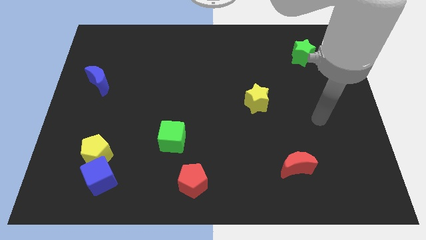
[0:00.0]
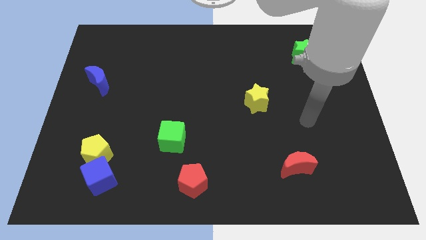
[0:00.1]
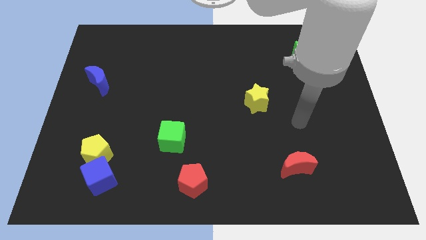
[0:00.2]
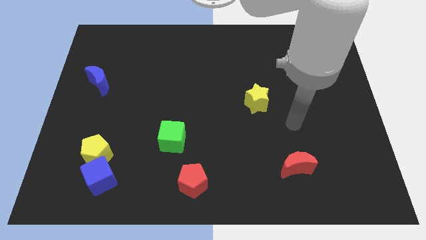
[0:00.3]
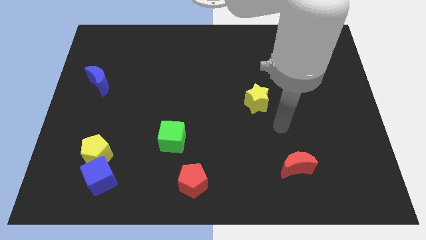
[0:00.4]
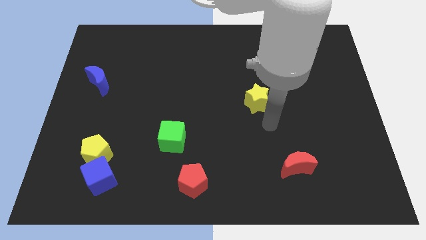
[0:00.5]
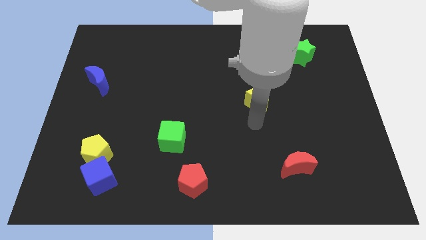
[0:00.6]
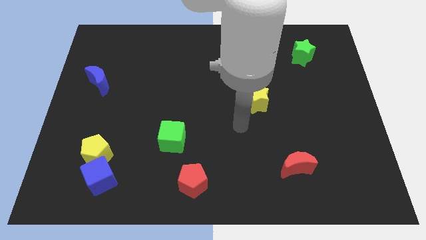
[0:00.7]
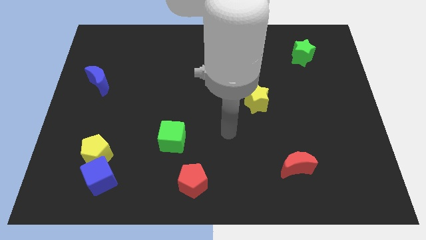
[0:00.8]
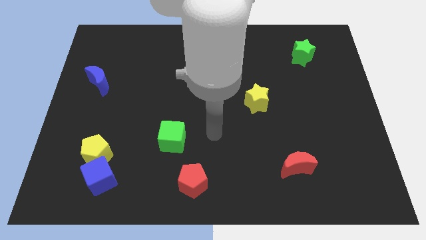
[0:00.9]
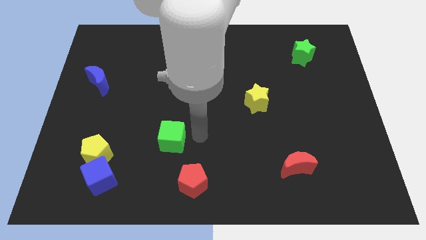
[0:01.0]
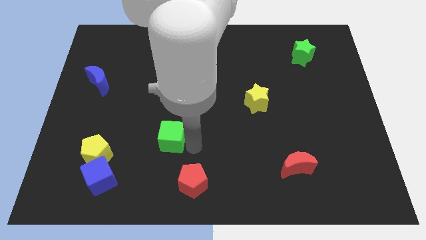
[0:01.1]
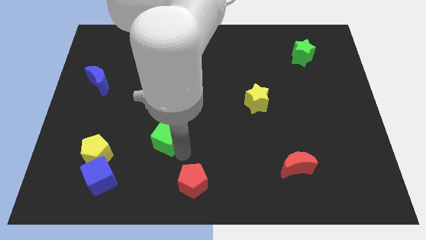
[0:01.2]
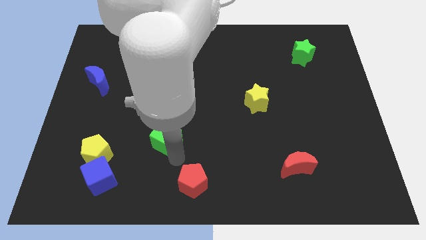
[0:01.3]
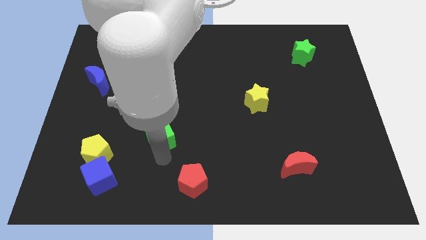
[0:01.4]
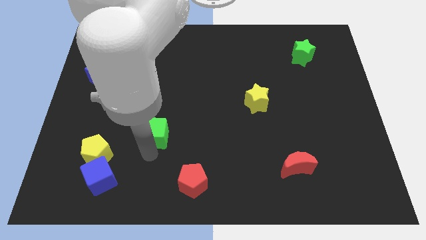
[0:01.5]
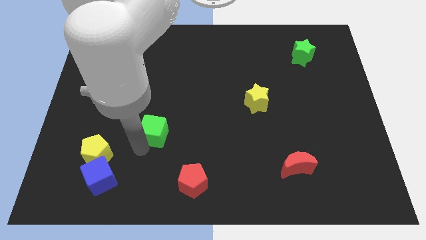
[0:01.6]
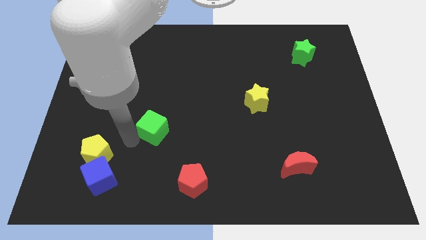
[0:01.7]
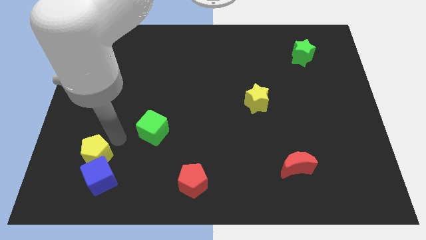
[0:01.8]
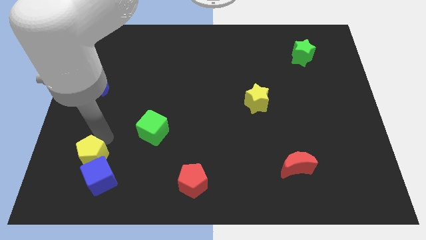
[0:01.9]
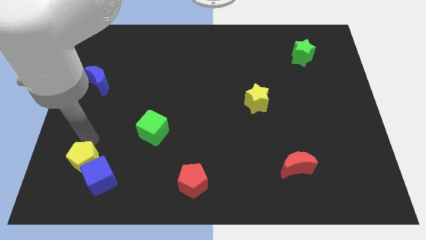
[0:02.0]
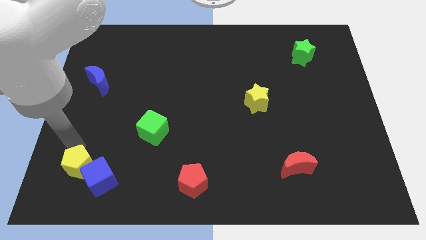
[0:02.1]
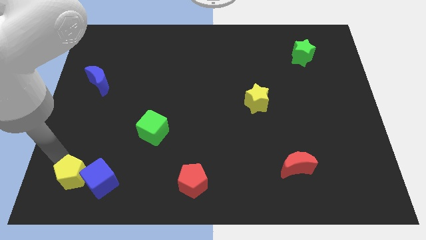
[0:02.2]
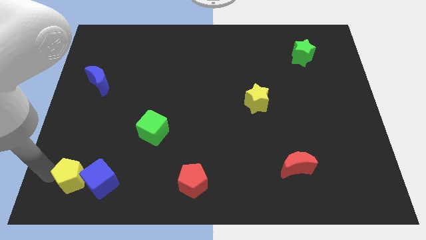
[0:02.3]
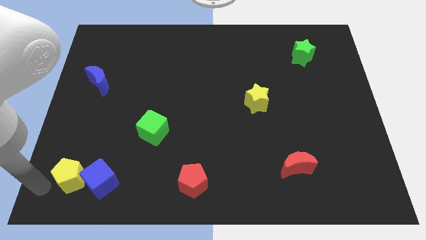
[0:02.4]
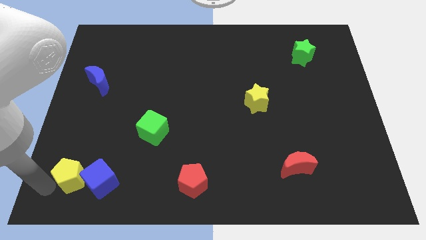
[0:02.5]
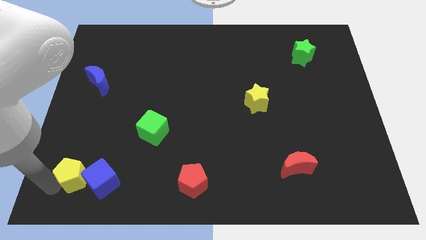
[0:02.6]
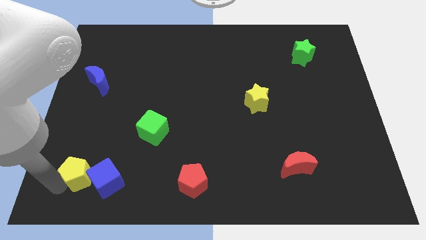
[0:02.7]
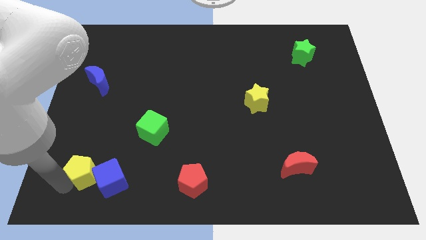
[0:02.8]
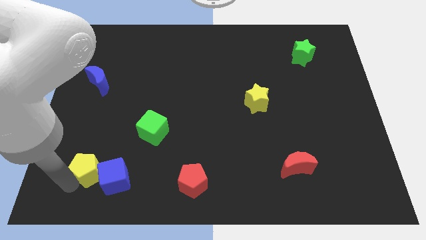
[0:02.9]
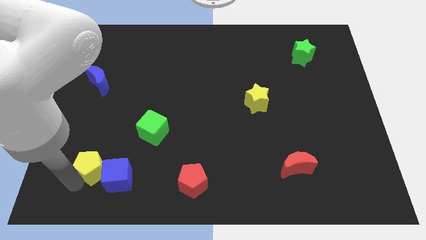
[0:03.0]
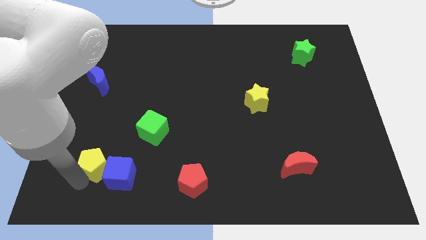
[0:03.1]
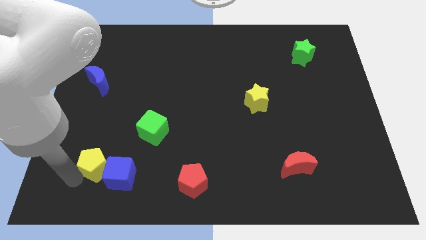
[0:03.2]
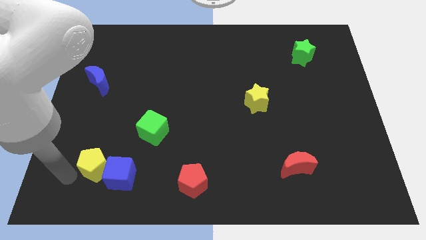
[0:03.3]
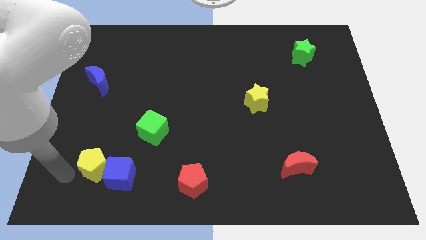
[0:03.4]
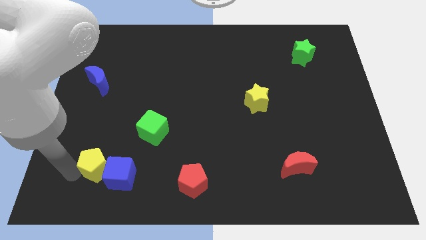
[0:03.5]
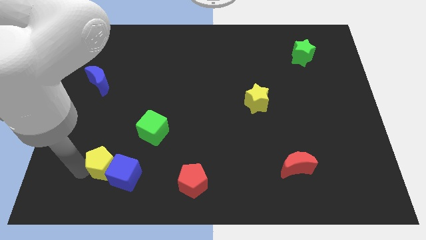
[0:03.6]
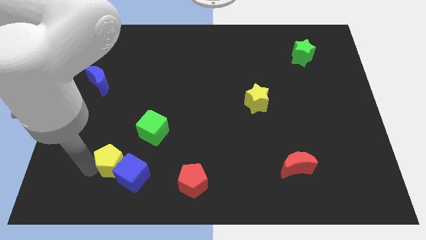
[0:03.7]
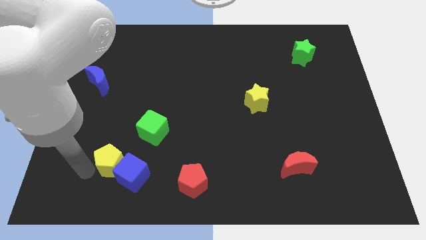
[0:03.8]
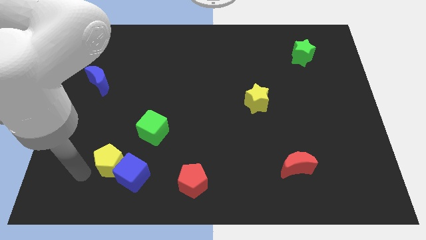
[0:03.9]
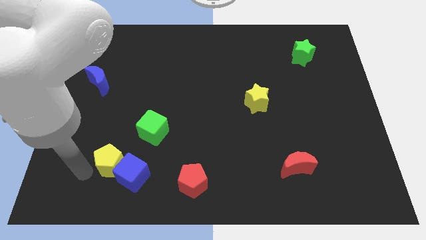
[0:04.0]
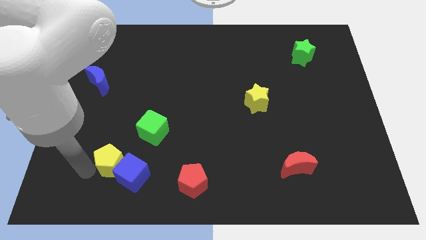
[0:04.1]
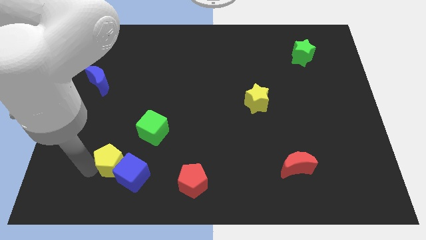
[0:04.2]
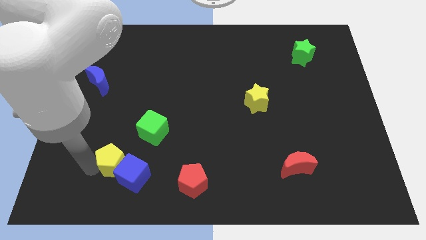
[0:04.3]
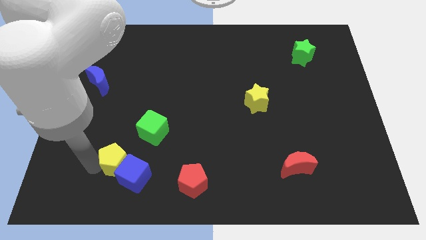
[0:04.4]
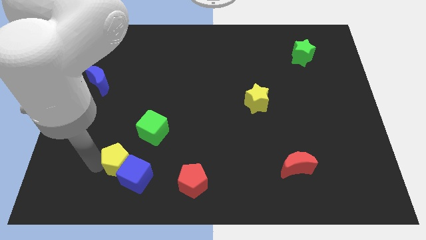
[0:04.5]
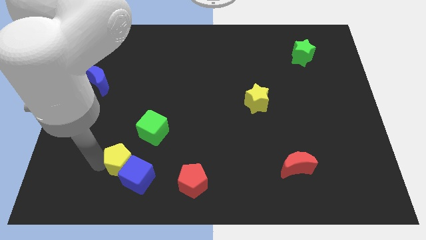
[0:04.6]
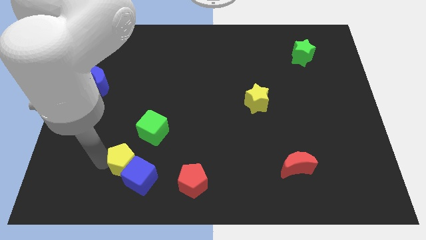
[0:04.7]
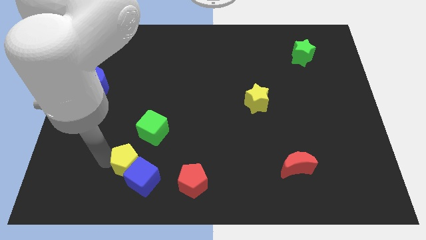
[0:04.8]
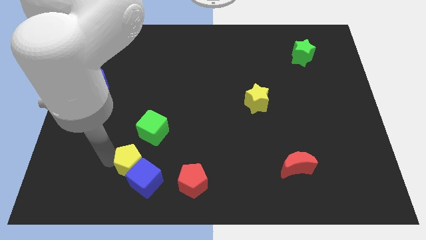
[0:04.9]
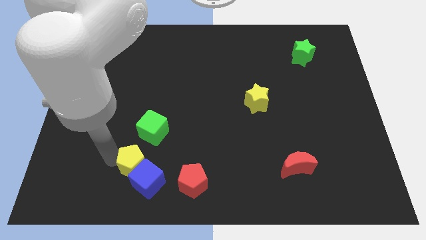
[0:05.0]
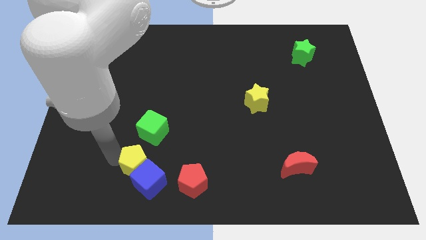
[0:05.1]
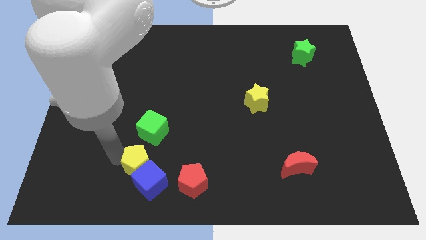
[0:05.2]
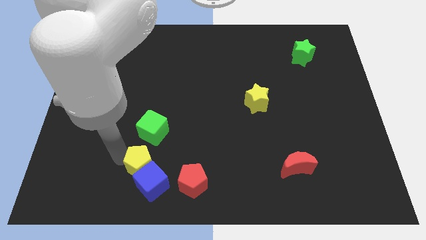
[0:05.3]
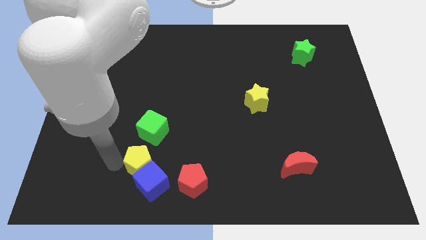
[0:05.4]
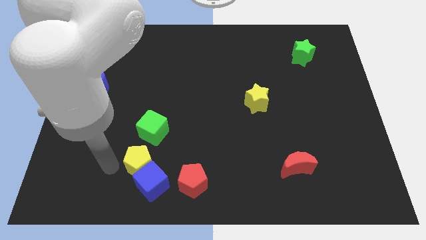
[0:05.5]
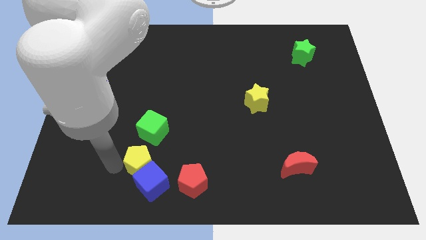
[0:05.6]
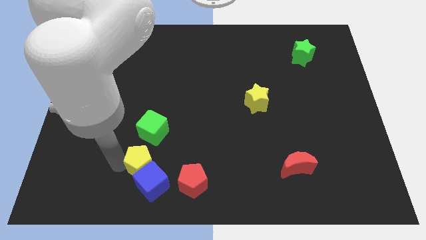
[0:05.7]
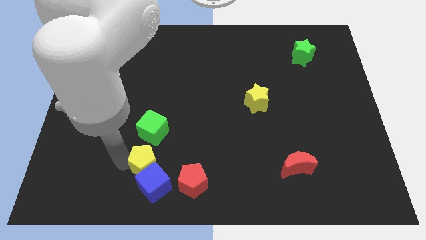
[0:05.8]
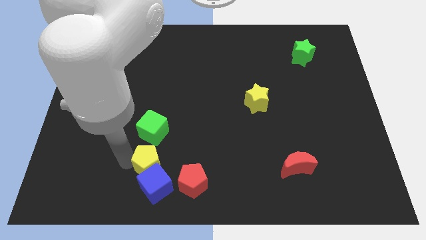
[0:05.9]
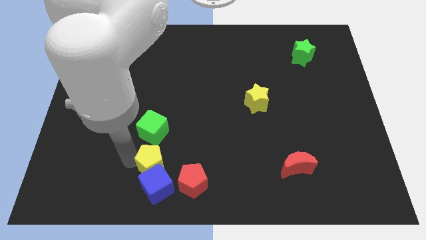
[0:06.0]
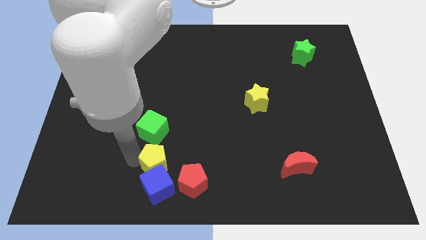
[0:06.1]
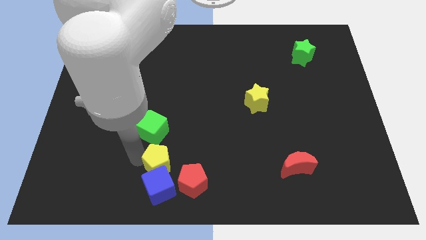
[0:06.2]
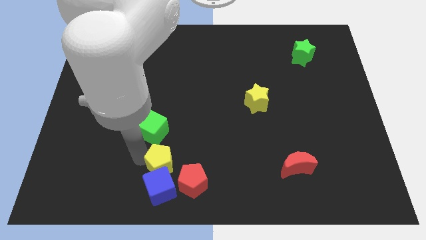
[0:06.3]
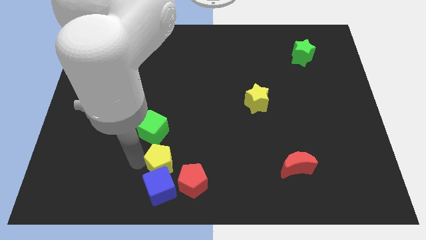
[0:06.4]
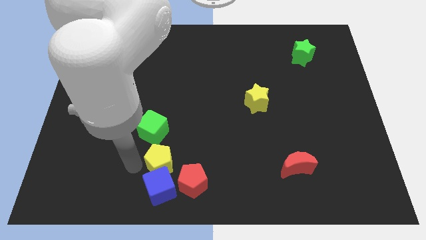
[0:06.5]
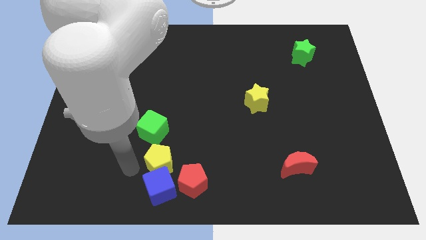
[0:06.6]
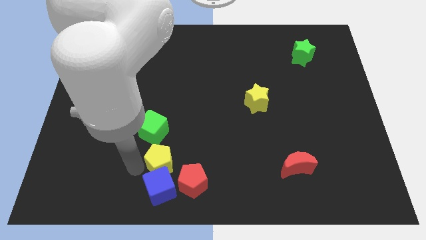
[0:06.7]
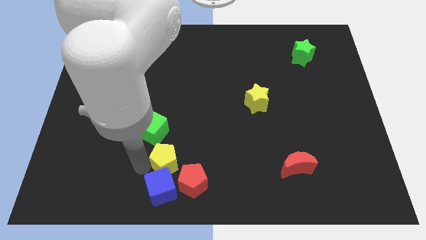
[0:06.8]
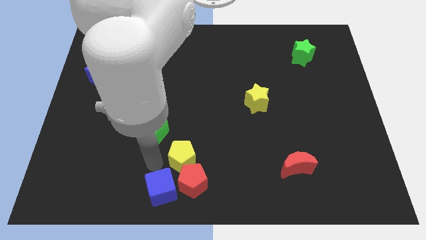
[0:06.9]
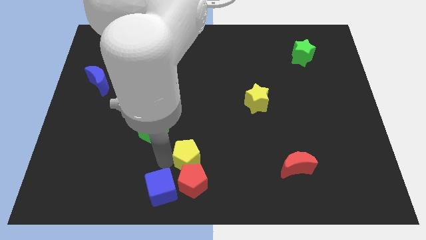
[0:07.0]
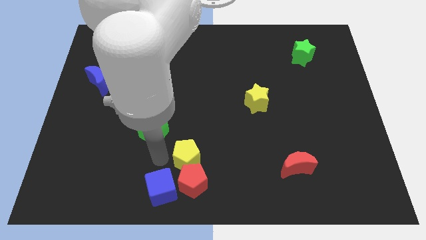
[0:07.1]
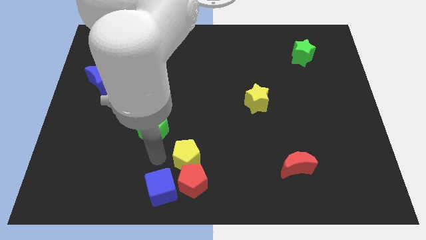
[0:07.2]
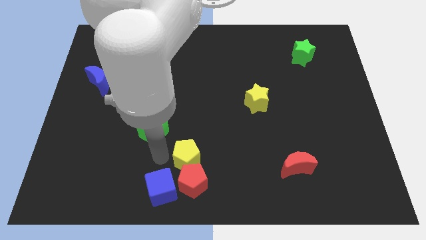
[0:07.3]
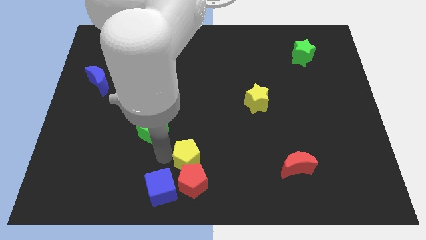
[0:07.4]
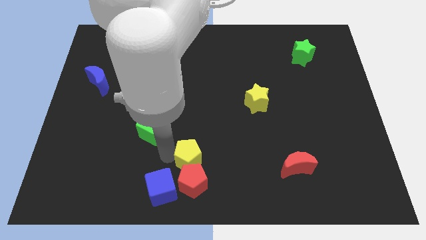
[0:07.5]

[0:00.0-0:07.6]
push the yellow pentagon right
